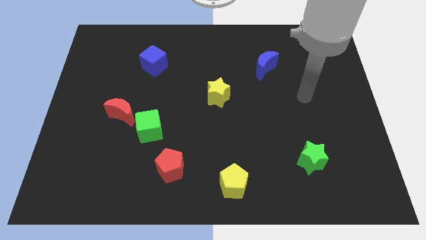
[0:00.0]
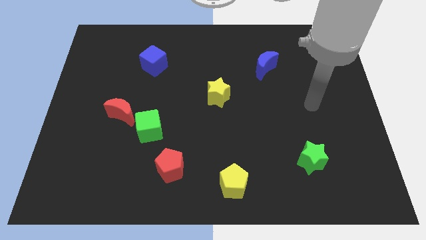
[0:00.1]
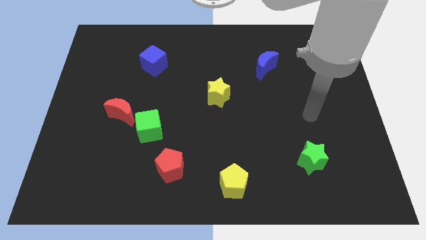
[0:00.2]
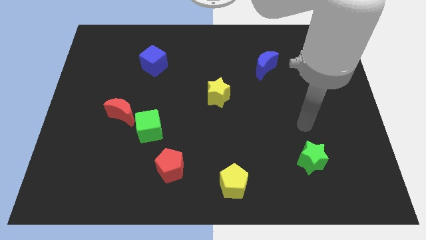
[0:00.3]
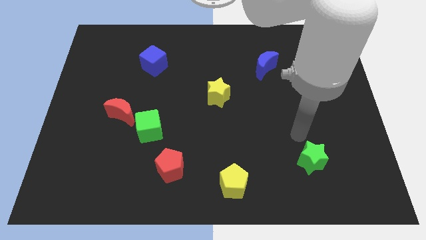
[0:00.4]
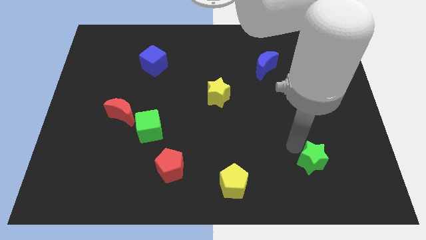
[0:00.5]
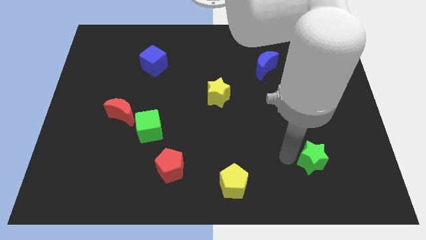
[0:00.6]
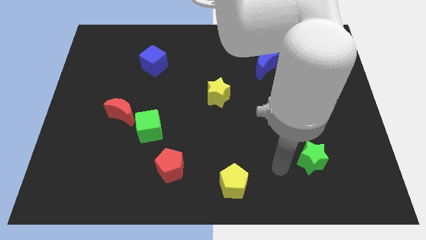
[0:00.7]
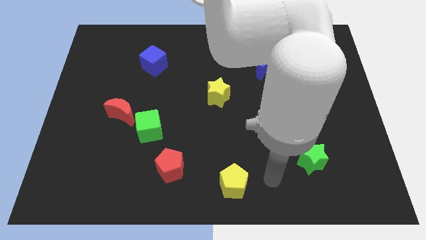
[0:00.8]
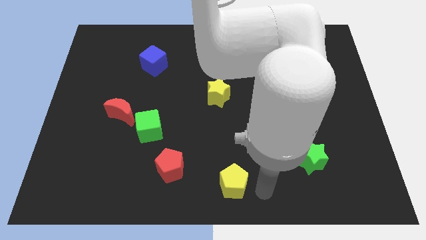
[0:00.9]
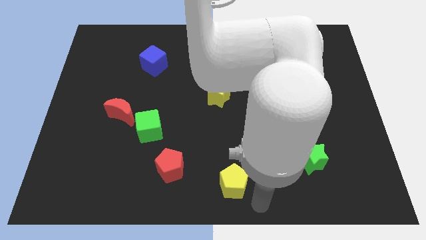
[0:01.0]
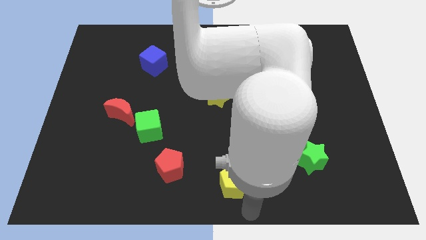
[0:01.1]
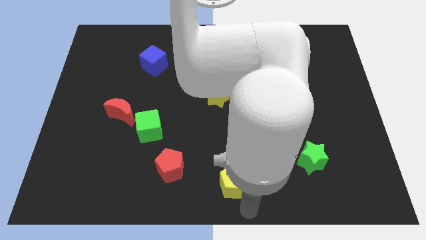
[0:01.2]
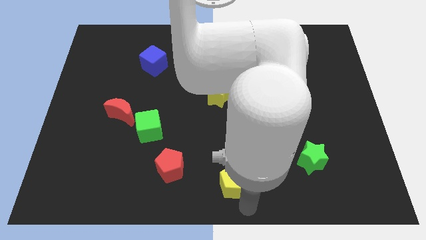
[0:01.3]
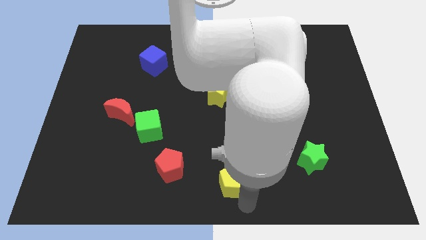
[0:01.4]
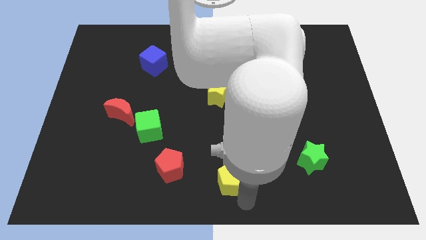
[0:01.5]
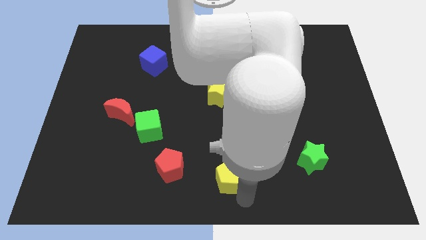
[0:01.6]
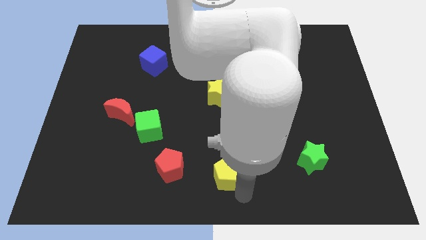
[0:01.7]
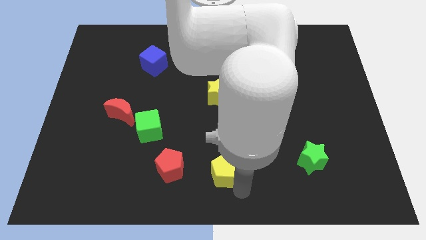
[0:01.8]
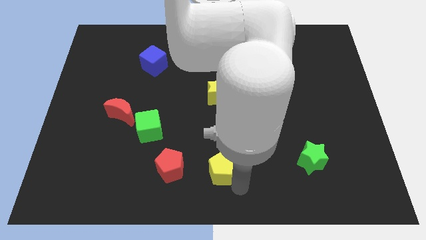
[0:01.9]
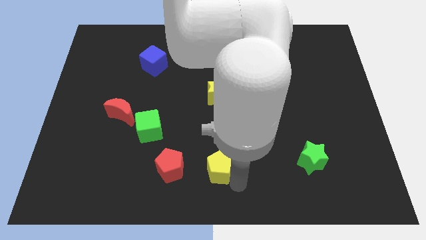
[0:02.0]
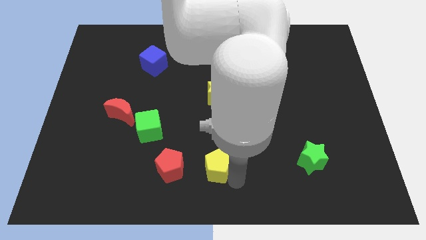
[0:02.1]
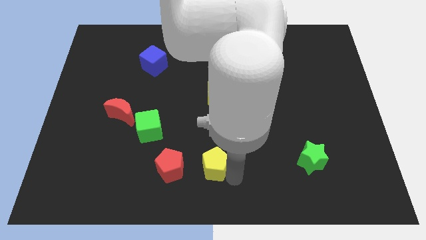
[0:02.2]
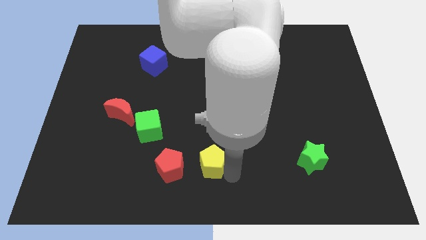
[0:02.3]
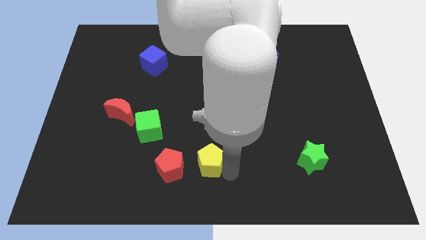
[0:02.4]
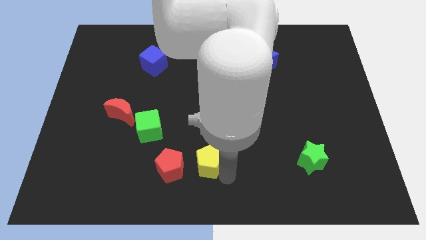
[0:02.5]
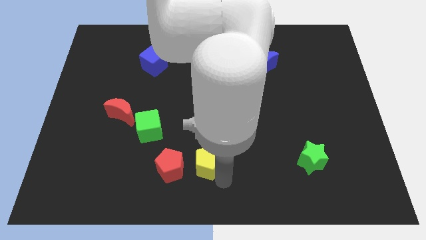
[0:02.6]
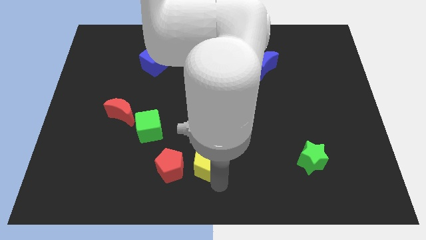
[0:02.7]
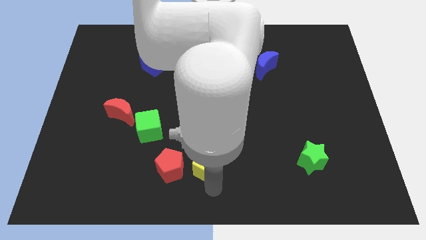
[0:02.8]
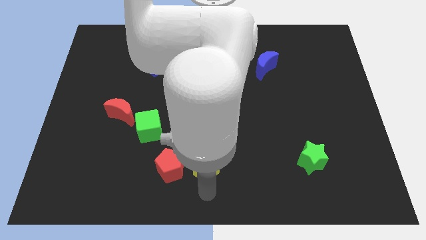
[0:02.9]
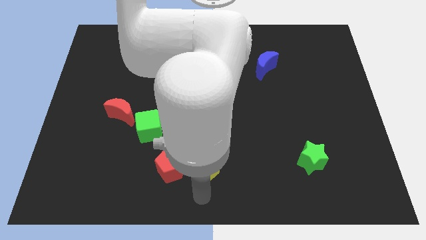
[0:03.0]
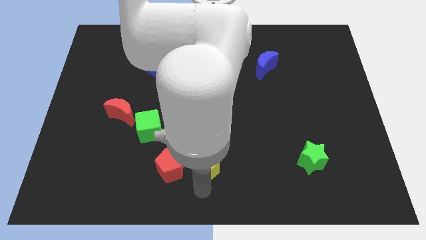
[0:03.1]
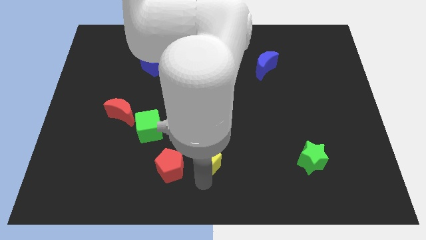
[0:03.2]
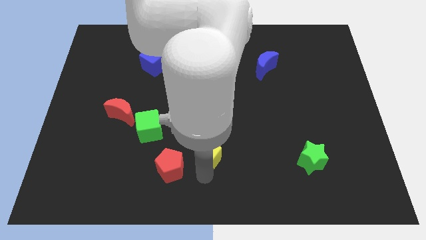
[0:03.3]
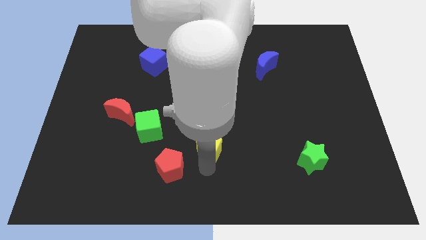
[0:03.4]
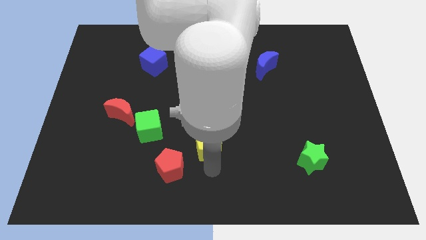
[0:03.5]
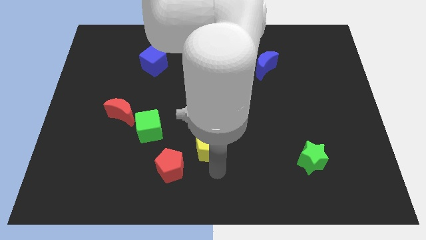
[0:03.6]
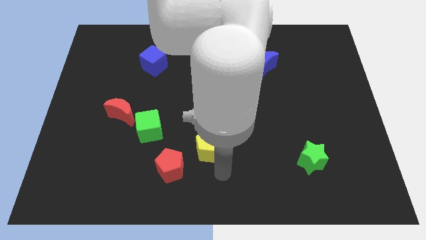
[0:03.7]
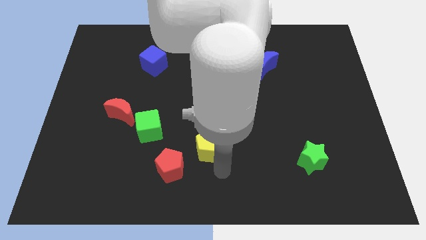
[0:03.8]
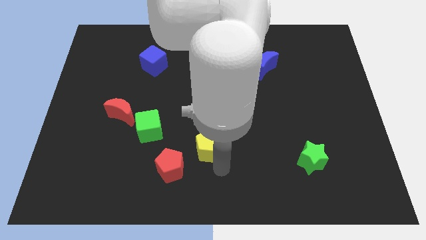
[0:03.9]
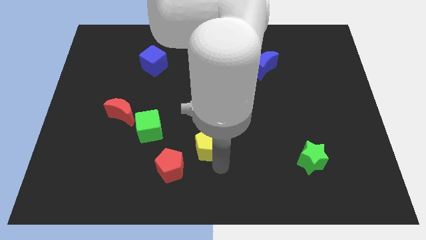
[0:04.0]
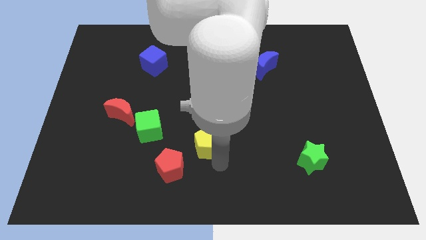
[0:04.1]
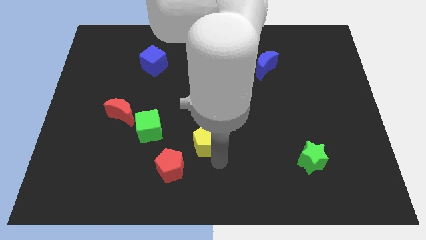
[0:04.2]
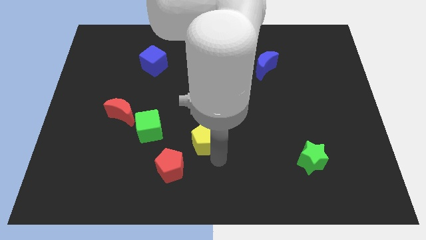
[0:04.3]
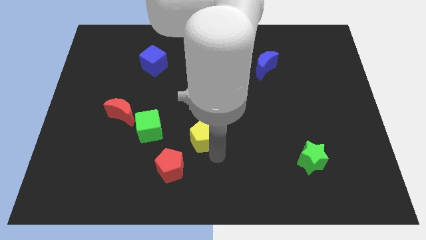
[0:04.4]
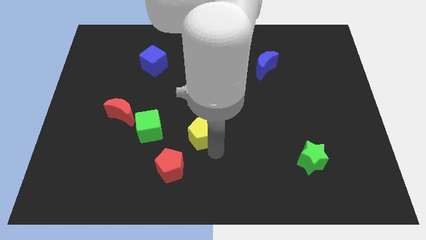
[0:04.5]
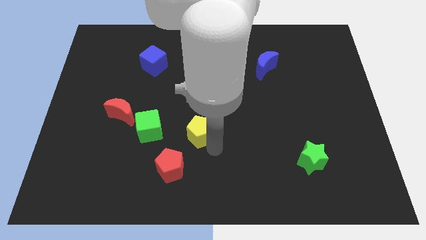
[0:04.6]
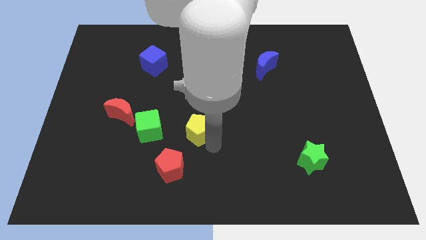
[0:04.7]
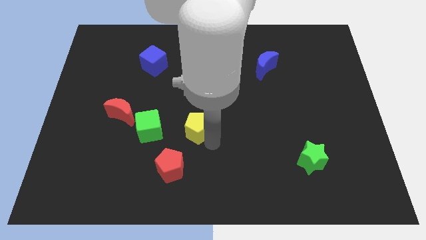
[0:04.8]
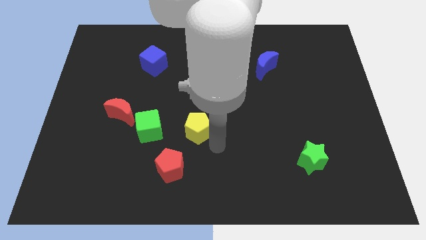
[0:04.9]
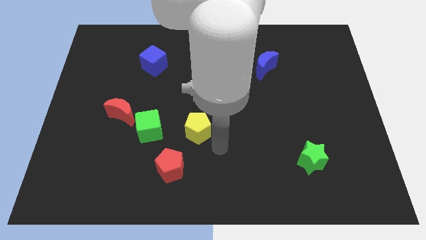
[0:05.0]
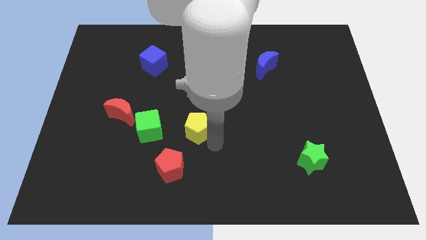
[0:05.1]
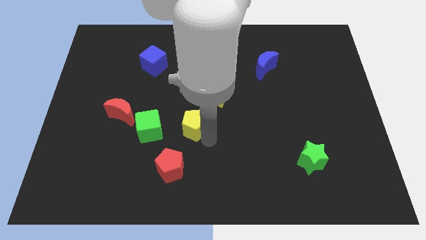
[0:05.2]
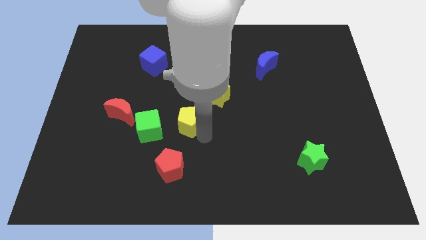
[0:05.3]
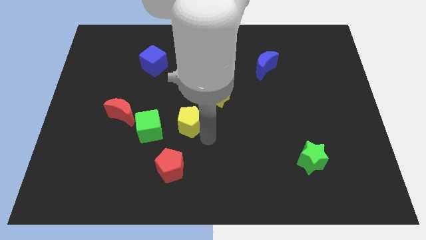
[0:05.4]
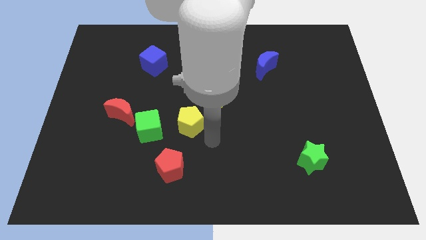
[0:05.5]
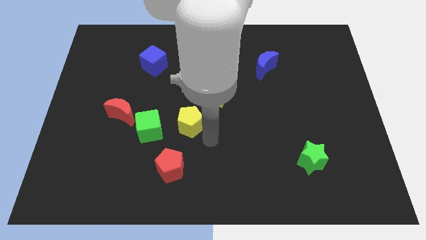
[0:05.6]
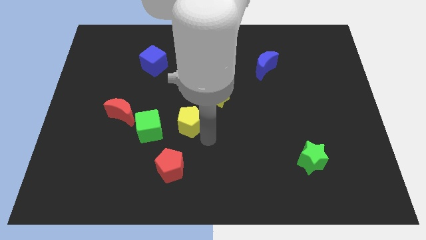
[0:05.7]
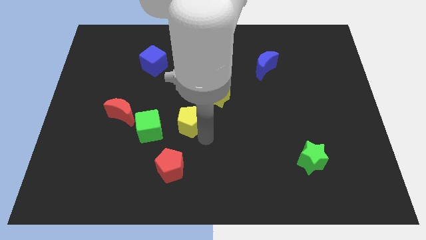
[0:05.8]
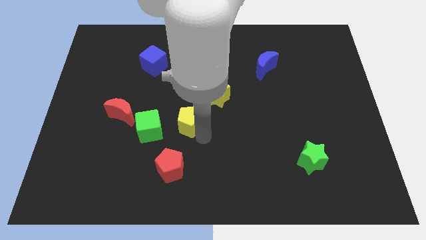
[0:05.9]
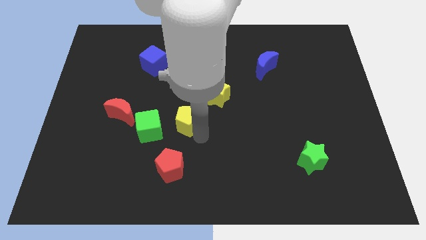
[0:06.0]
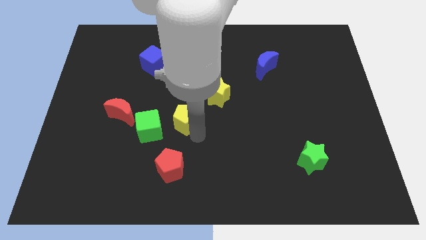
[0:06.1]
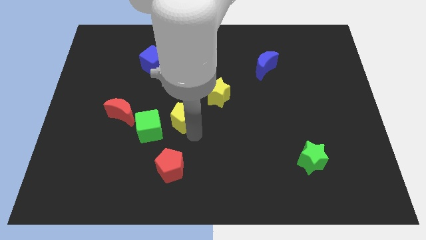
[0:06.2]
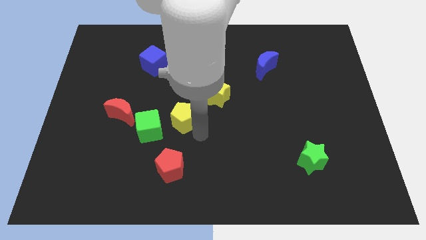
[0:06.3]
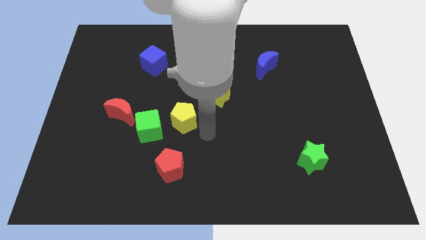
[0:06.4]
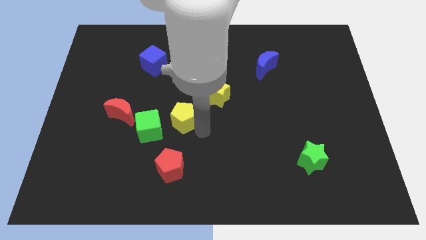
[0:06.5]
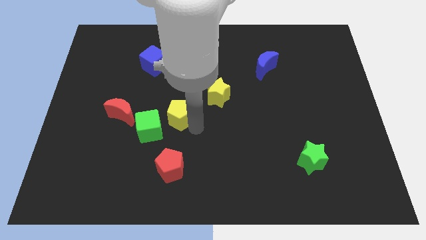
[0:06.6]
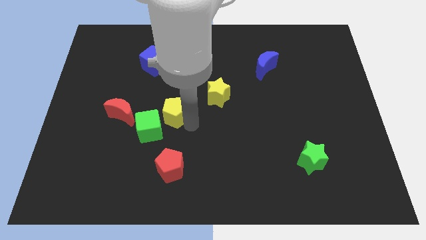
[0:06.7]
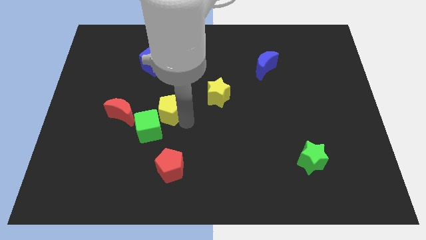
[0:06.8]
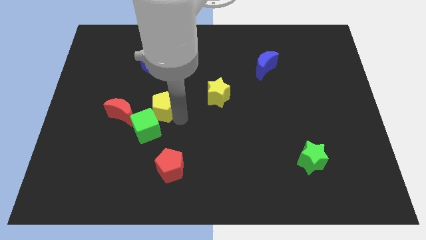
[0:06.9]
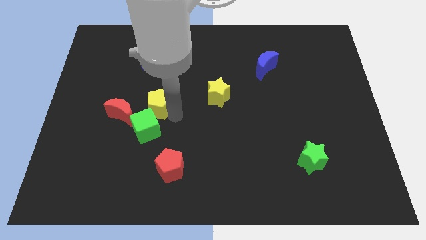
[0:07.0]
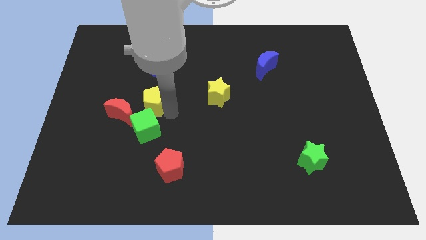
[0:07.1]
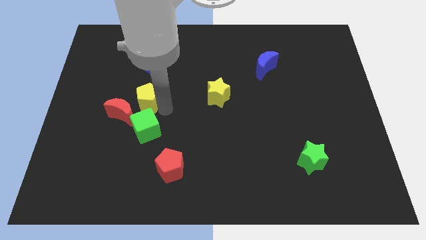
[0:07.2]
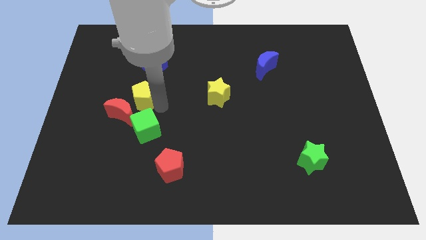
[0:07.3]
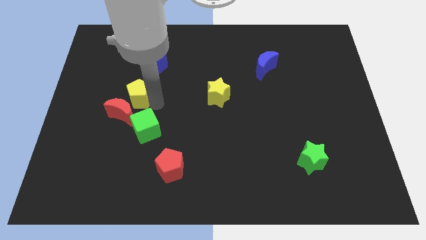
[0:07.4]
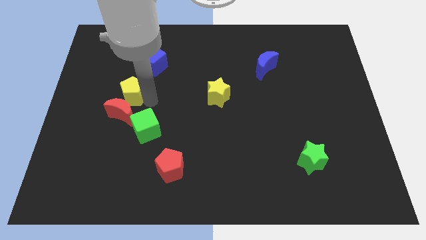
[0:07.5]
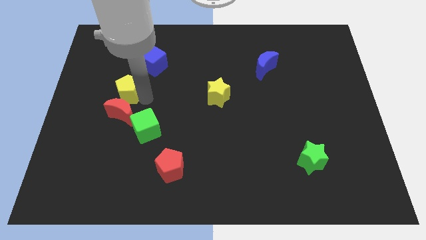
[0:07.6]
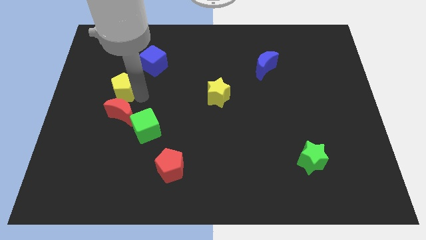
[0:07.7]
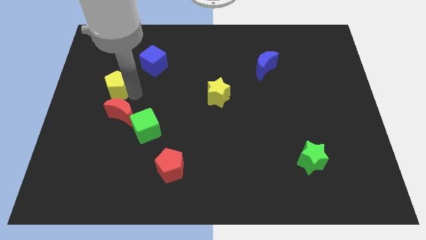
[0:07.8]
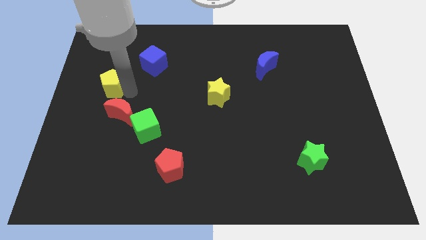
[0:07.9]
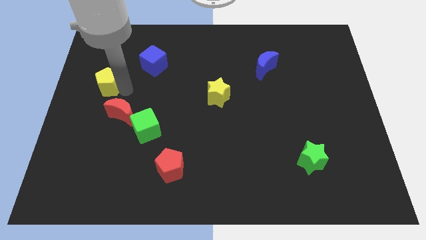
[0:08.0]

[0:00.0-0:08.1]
push the yellow pentagon to the left side of the board
